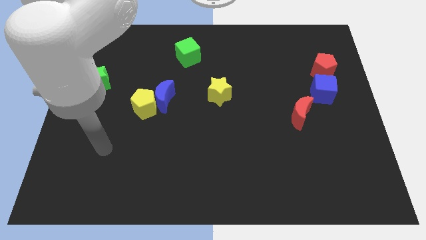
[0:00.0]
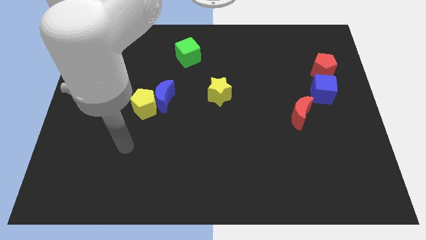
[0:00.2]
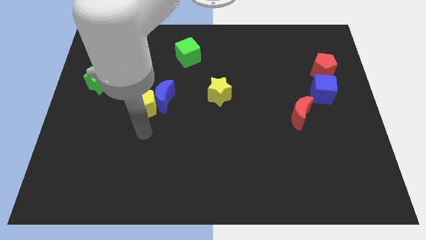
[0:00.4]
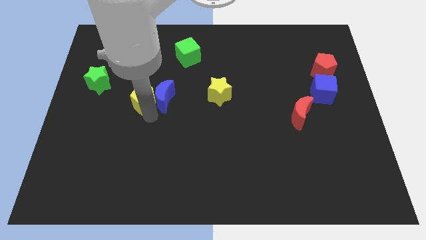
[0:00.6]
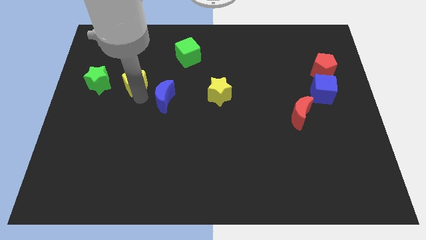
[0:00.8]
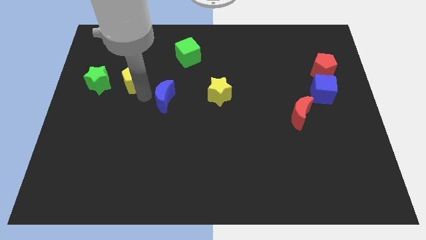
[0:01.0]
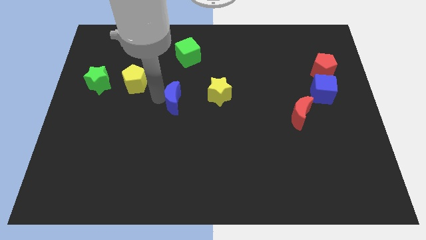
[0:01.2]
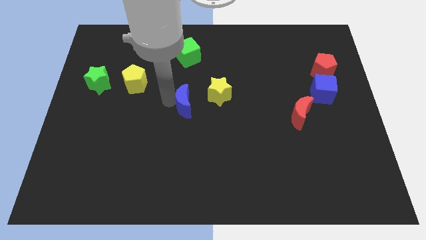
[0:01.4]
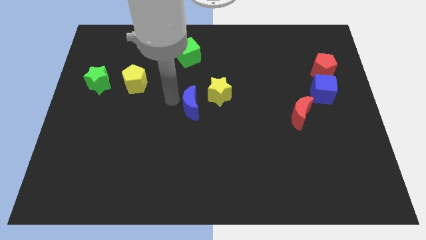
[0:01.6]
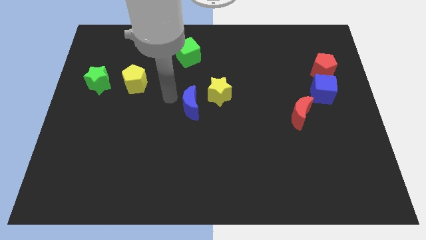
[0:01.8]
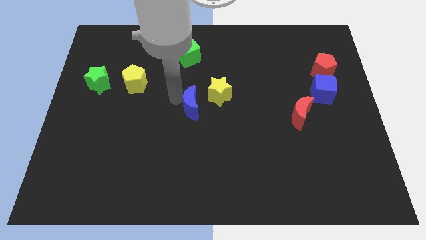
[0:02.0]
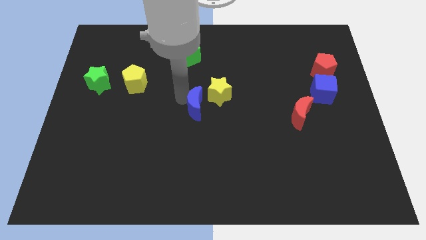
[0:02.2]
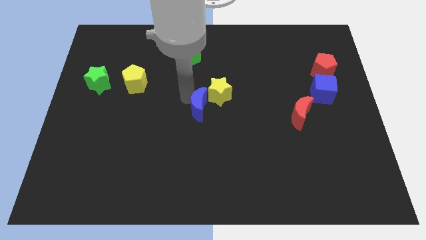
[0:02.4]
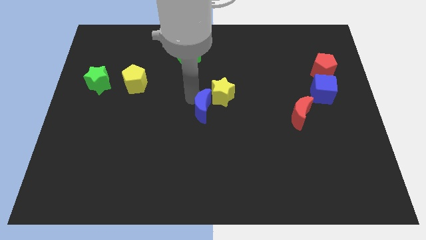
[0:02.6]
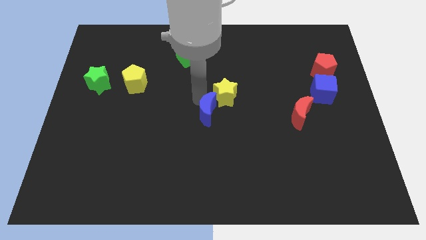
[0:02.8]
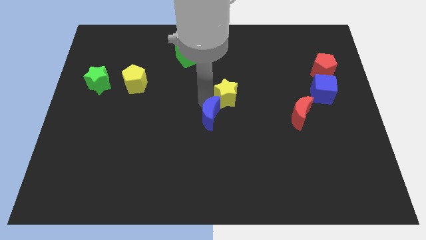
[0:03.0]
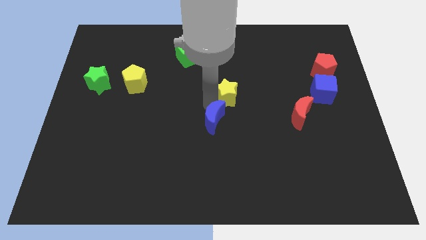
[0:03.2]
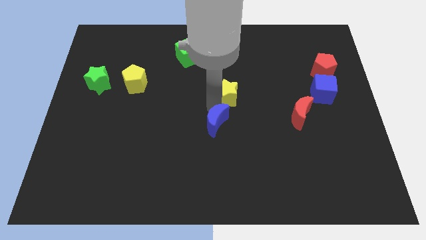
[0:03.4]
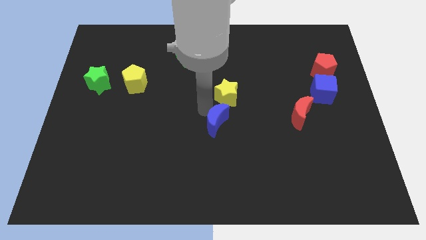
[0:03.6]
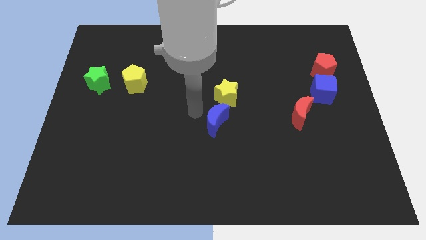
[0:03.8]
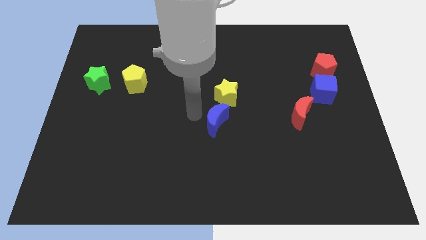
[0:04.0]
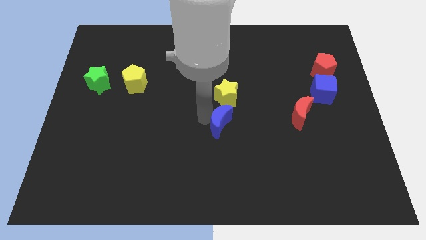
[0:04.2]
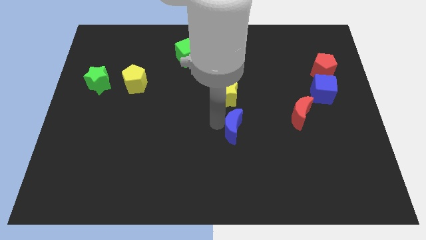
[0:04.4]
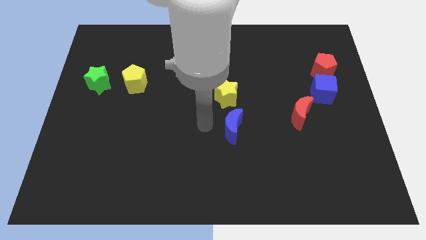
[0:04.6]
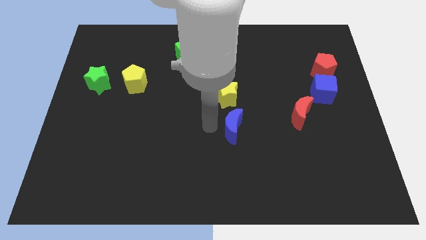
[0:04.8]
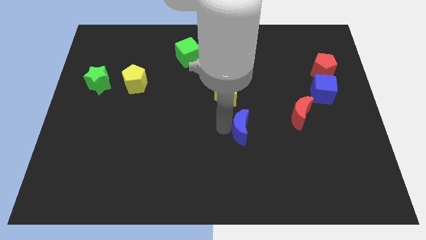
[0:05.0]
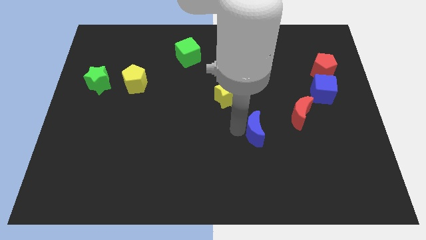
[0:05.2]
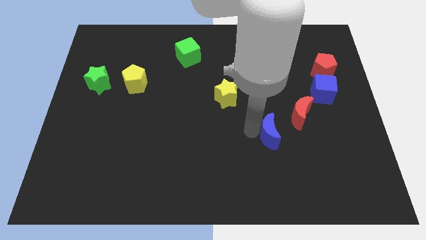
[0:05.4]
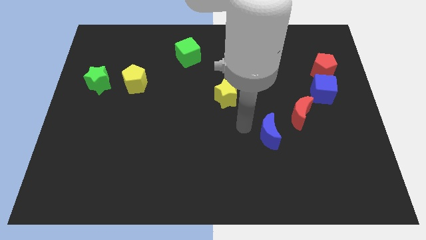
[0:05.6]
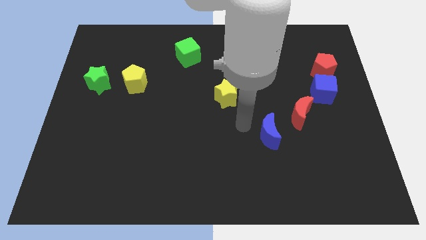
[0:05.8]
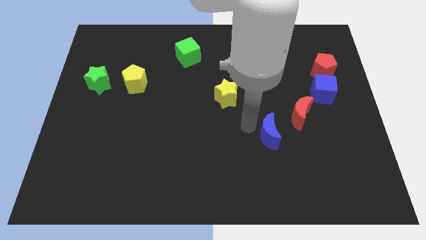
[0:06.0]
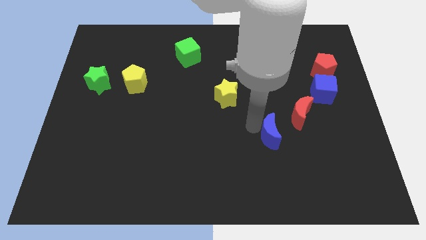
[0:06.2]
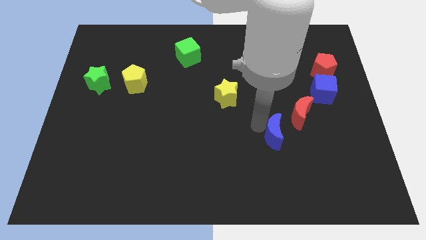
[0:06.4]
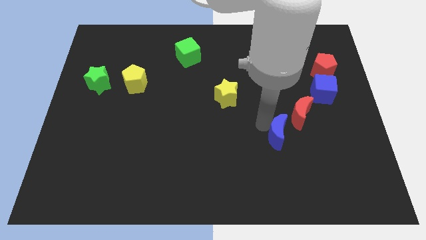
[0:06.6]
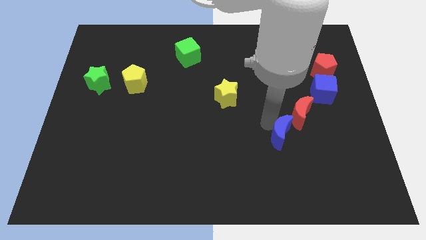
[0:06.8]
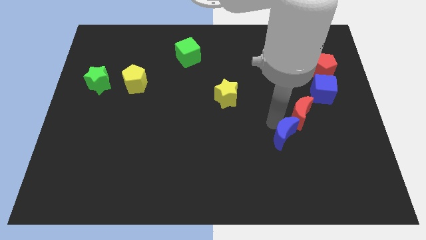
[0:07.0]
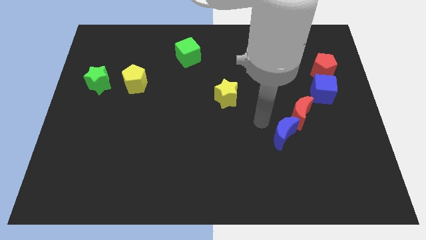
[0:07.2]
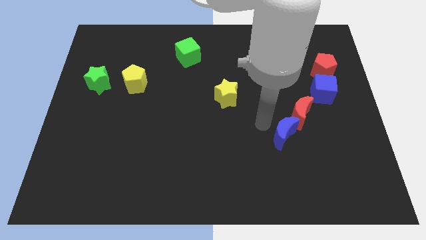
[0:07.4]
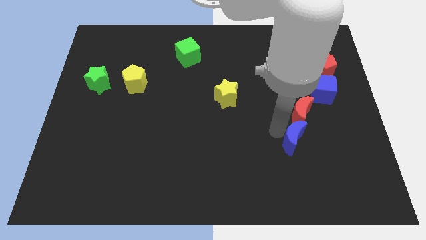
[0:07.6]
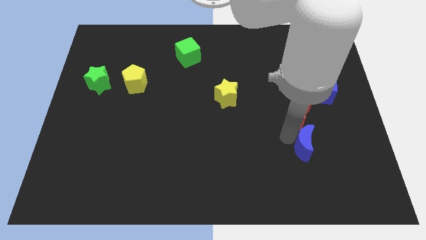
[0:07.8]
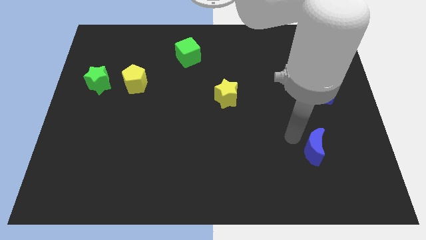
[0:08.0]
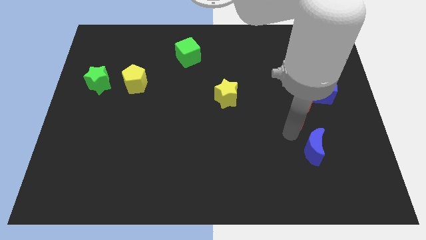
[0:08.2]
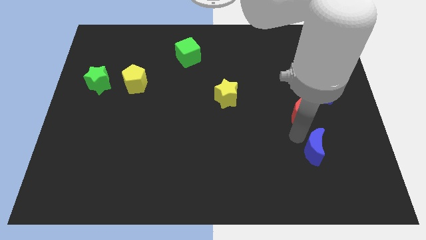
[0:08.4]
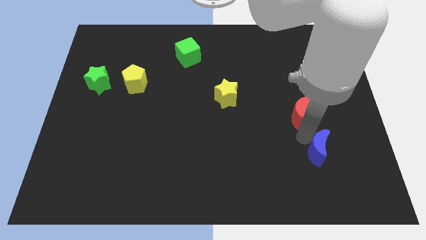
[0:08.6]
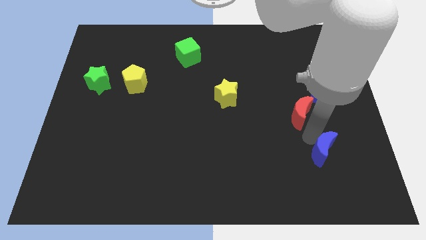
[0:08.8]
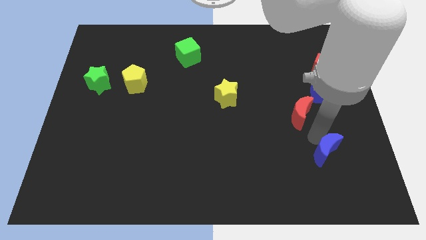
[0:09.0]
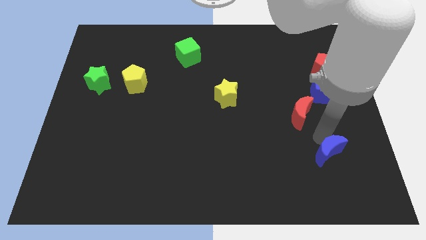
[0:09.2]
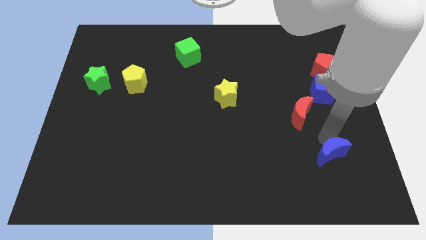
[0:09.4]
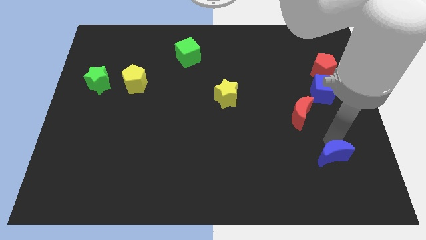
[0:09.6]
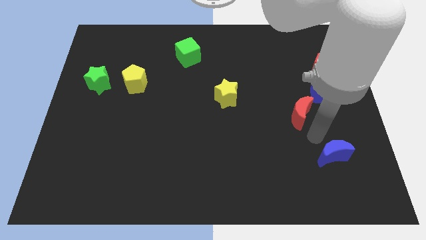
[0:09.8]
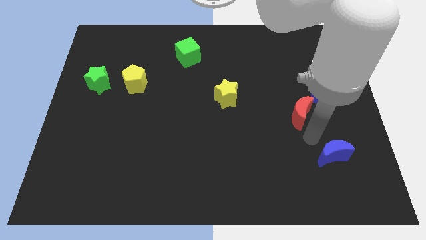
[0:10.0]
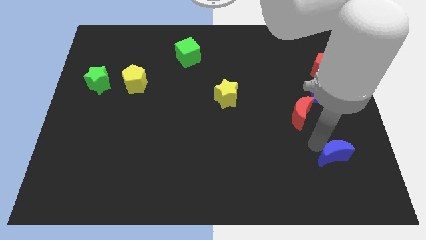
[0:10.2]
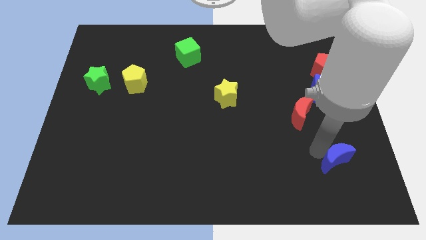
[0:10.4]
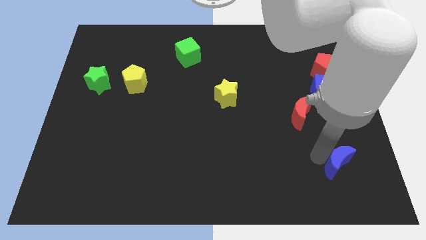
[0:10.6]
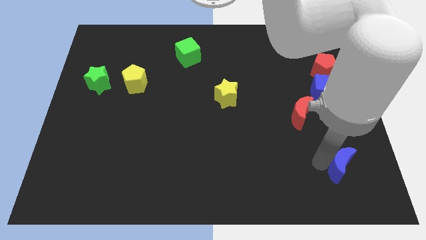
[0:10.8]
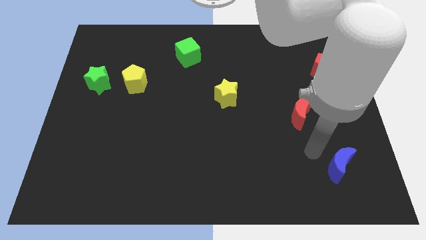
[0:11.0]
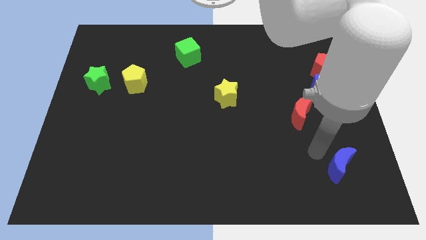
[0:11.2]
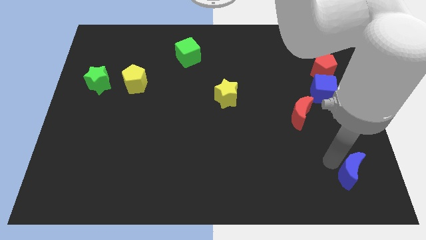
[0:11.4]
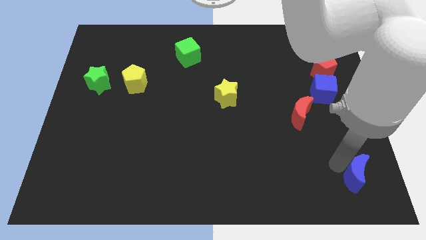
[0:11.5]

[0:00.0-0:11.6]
push the blue moon to the bottom right
